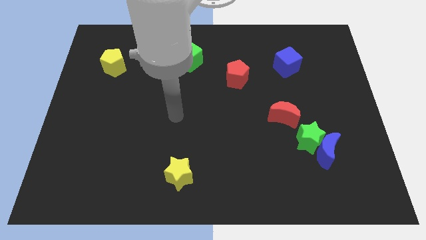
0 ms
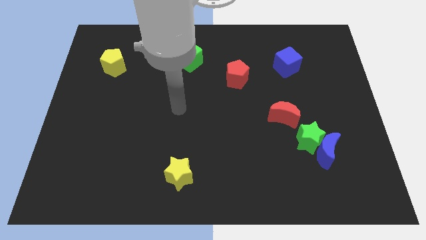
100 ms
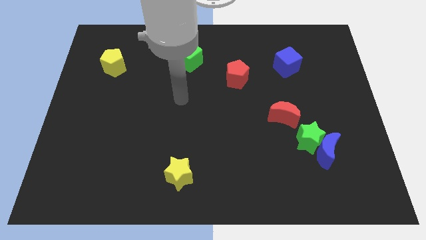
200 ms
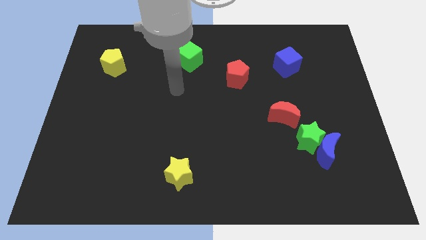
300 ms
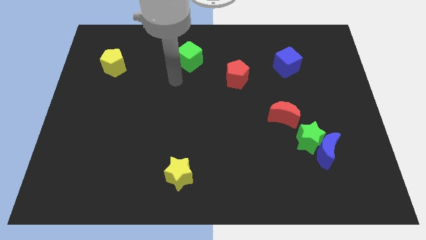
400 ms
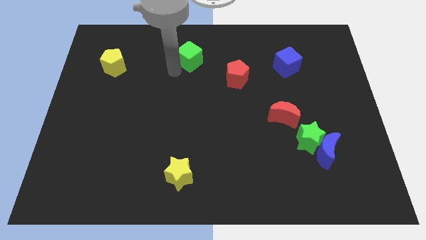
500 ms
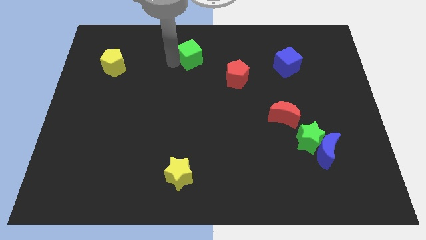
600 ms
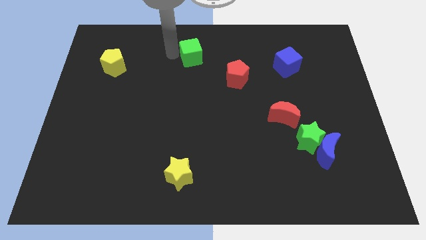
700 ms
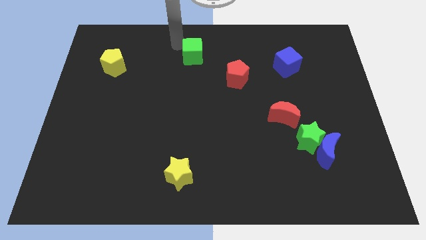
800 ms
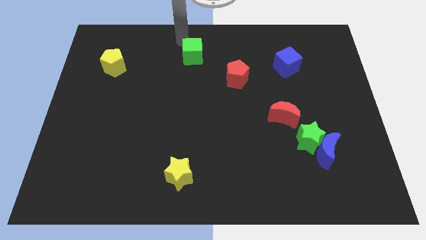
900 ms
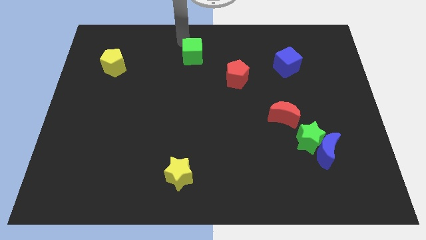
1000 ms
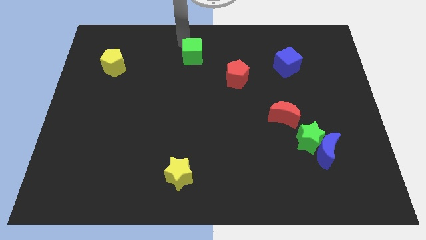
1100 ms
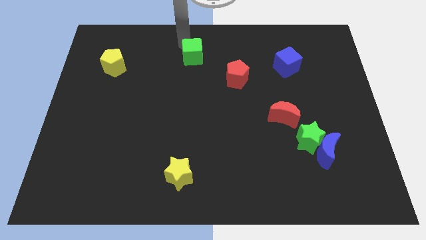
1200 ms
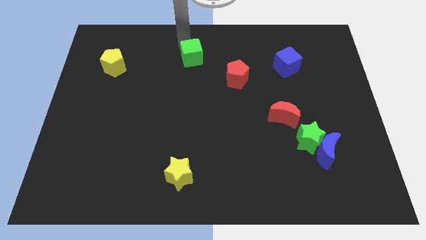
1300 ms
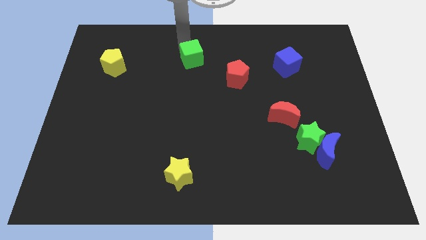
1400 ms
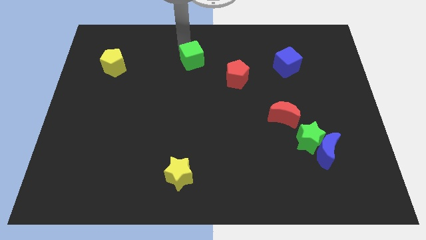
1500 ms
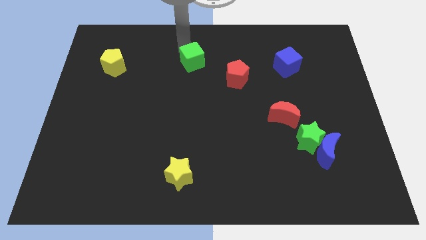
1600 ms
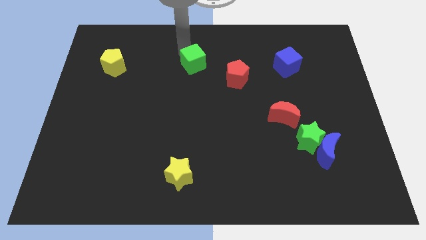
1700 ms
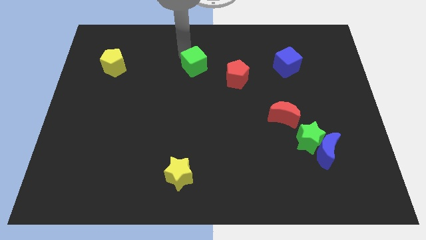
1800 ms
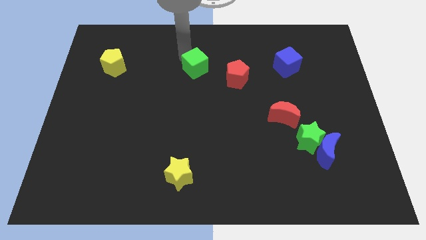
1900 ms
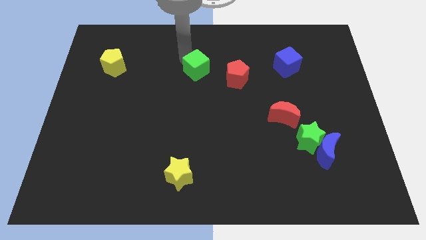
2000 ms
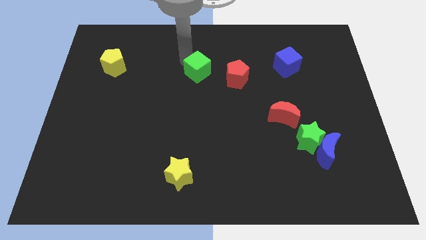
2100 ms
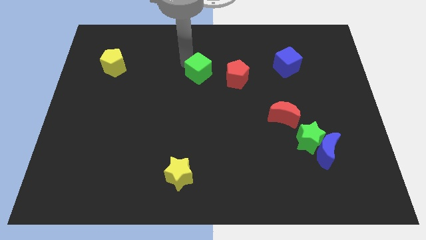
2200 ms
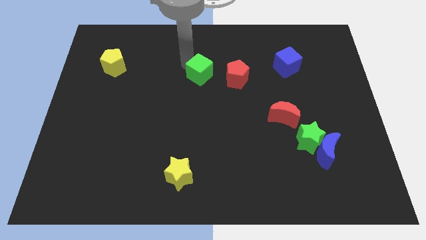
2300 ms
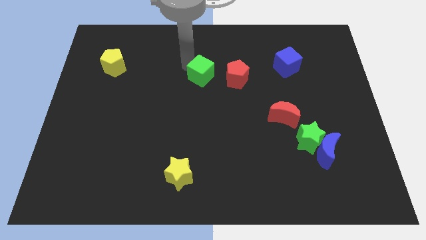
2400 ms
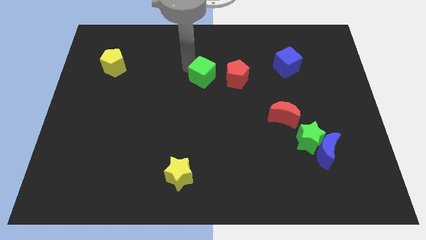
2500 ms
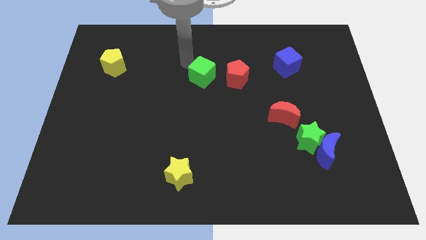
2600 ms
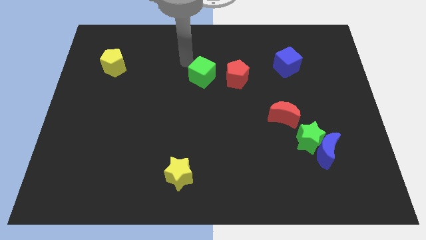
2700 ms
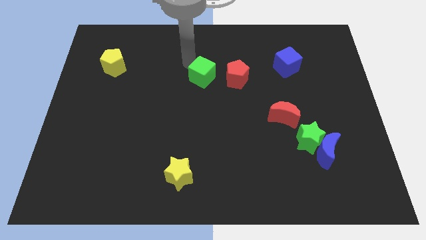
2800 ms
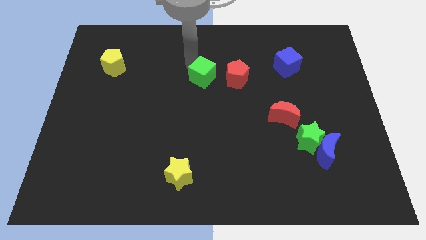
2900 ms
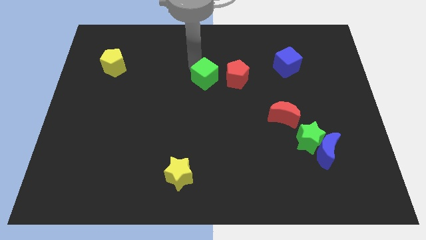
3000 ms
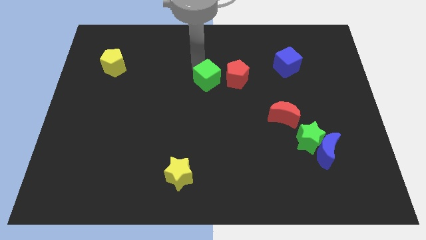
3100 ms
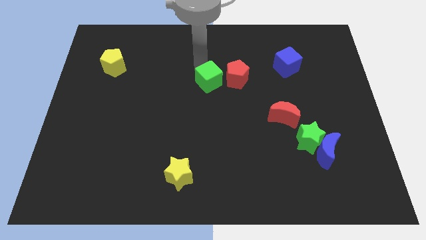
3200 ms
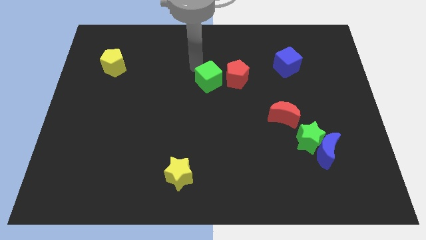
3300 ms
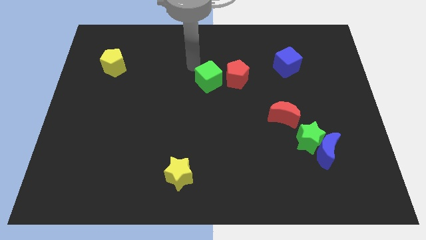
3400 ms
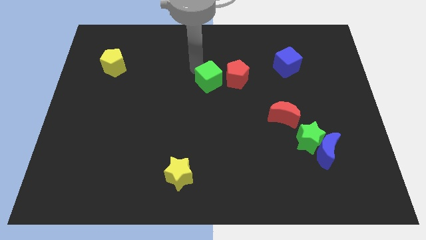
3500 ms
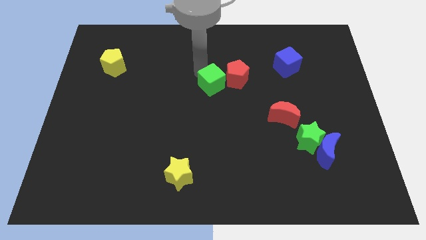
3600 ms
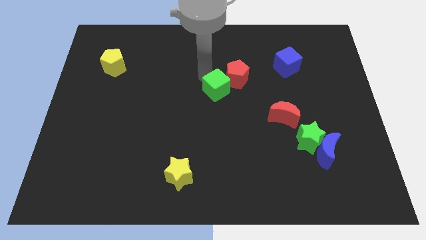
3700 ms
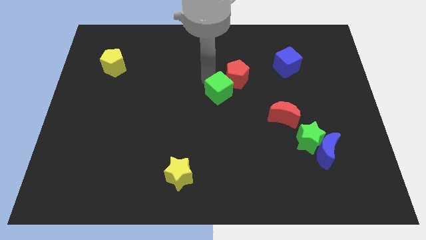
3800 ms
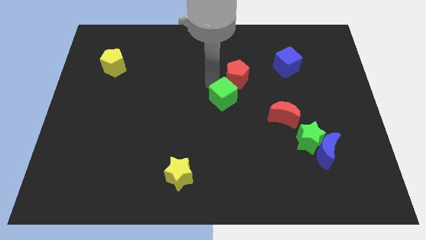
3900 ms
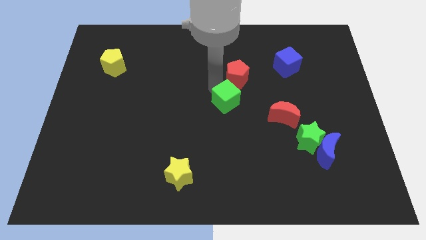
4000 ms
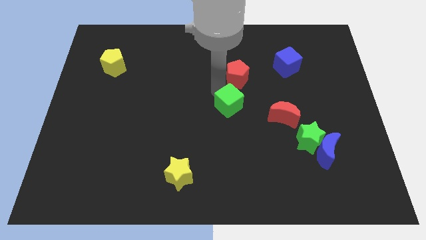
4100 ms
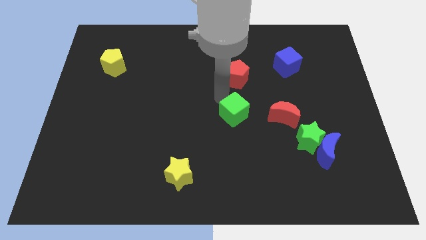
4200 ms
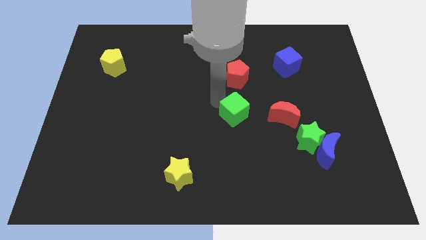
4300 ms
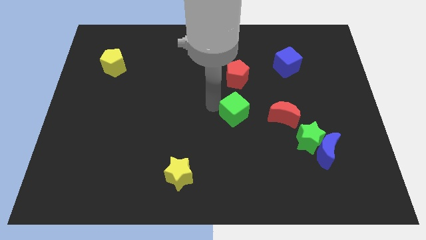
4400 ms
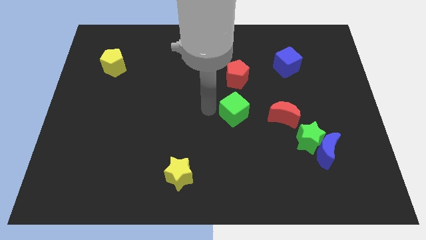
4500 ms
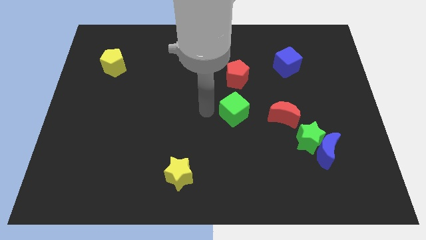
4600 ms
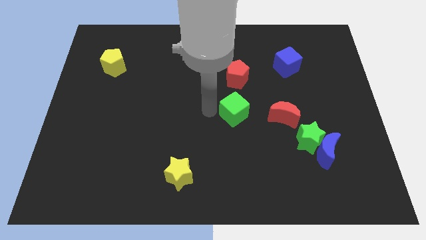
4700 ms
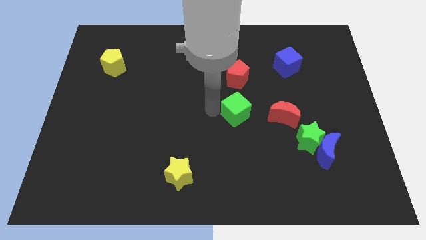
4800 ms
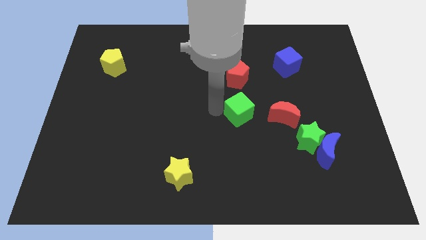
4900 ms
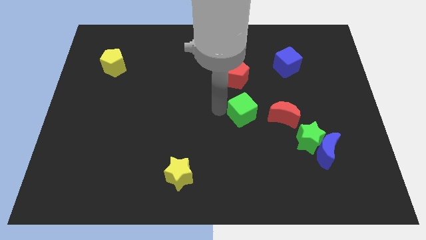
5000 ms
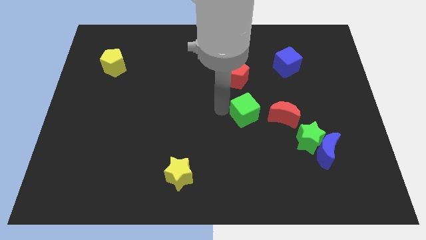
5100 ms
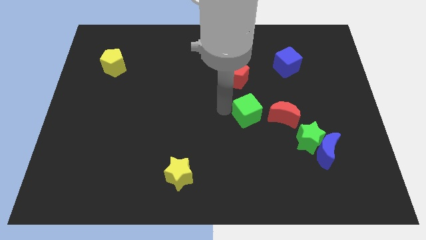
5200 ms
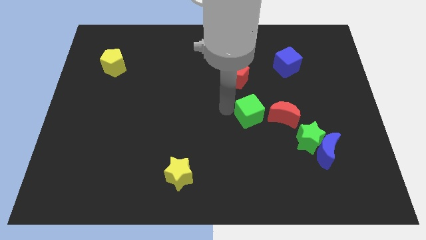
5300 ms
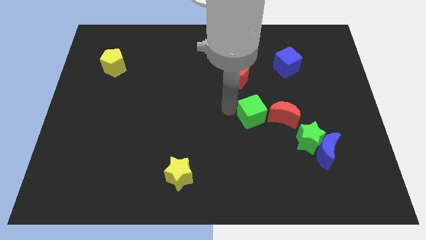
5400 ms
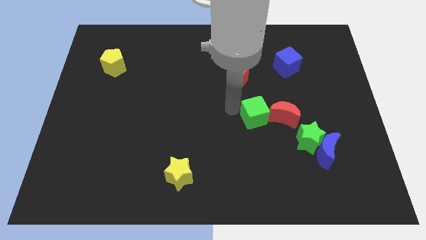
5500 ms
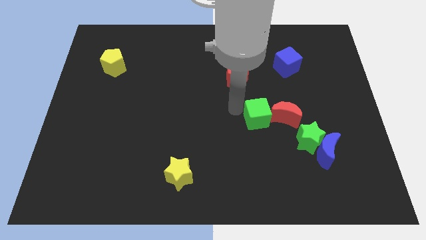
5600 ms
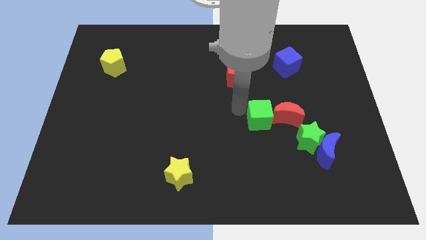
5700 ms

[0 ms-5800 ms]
push the green cube towards the red moon

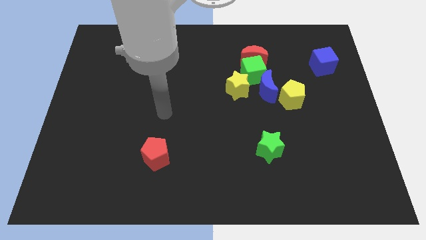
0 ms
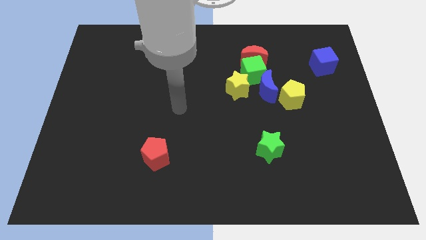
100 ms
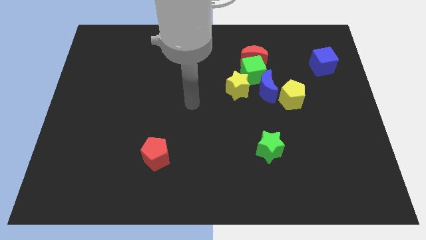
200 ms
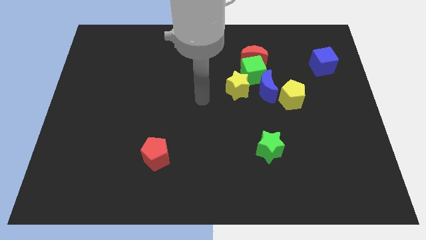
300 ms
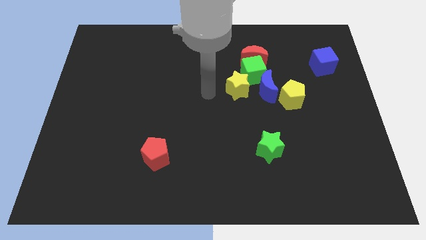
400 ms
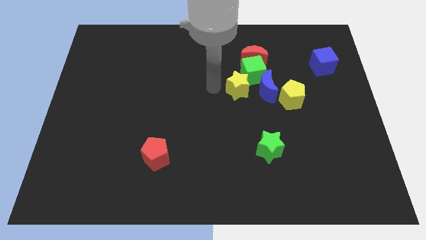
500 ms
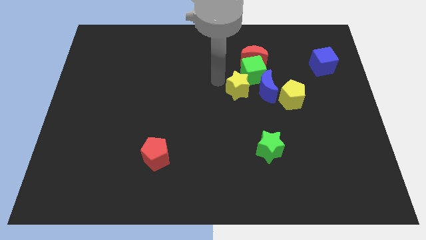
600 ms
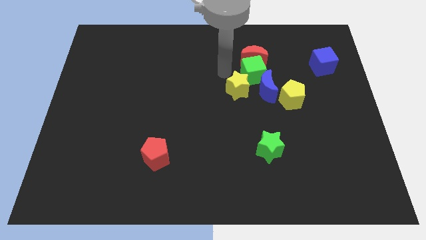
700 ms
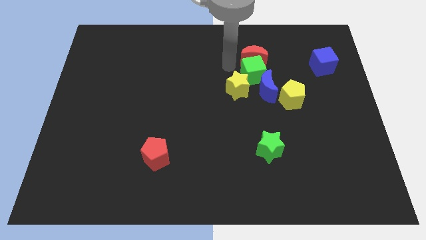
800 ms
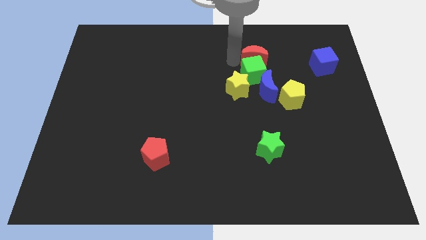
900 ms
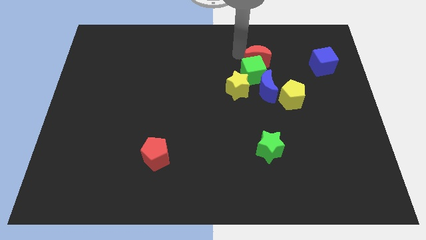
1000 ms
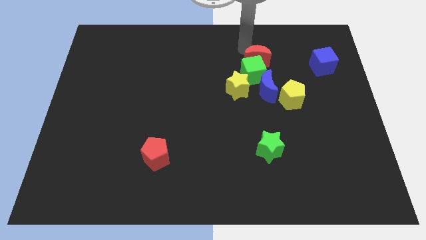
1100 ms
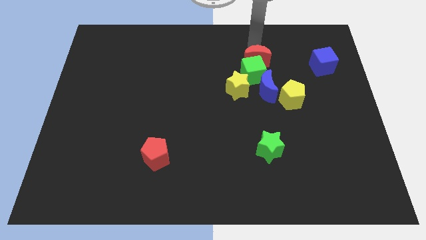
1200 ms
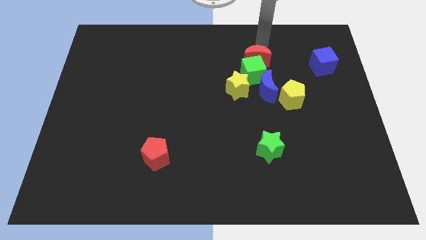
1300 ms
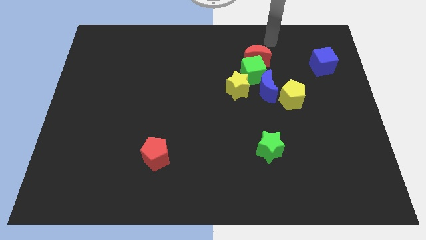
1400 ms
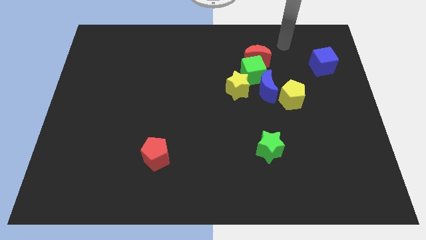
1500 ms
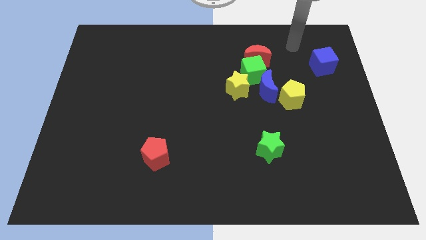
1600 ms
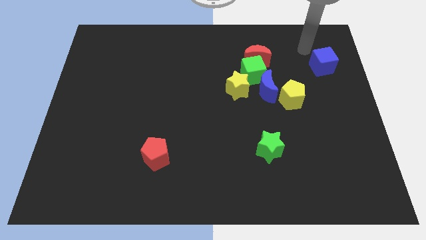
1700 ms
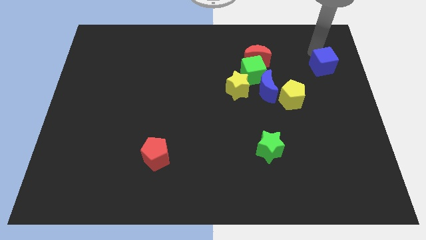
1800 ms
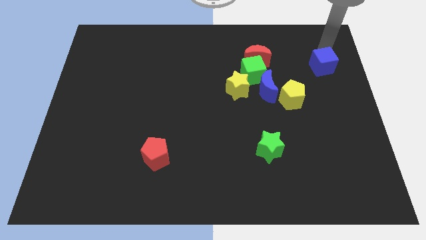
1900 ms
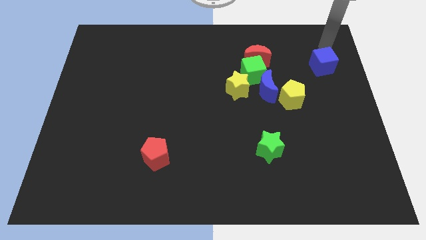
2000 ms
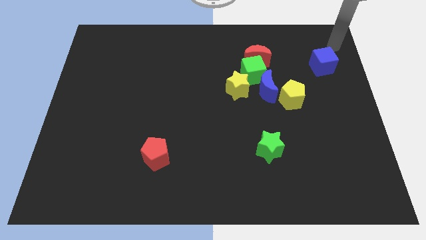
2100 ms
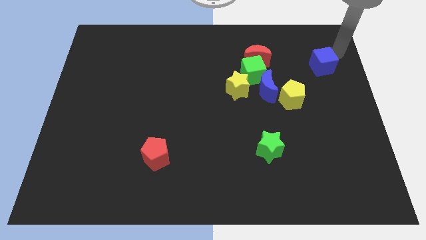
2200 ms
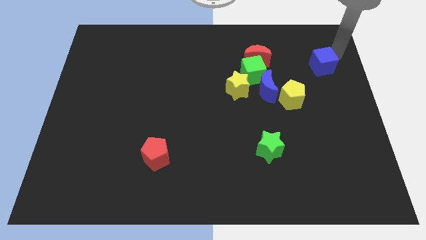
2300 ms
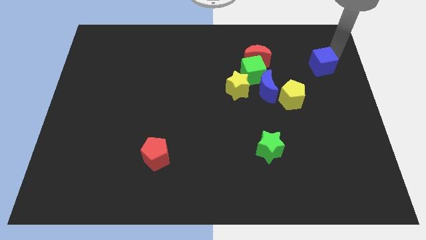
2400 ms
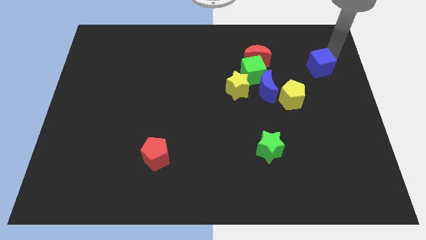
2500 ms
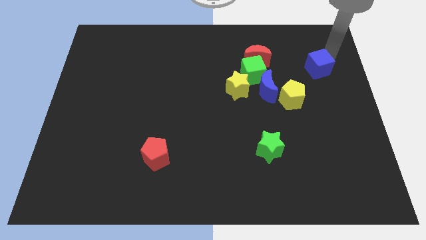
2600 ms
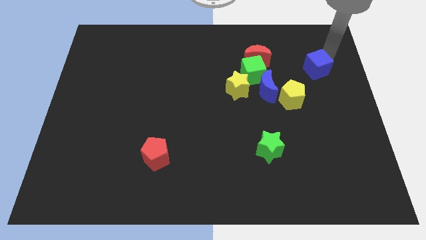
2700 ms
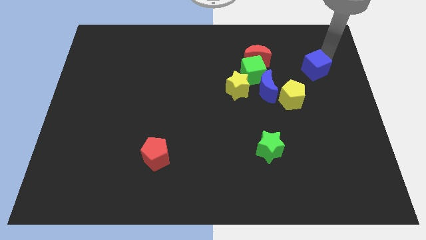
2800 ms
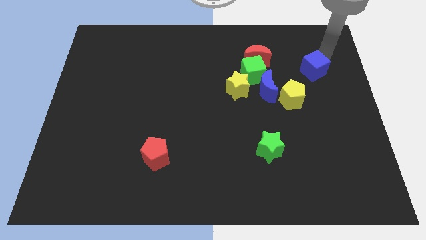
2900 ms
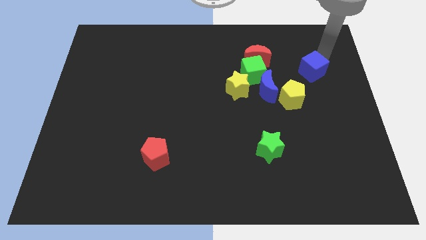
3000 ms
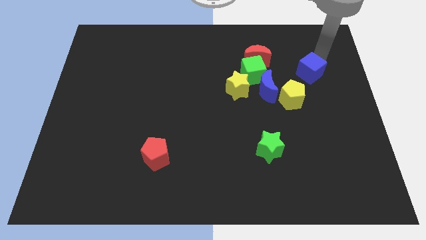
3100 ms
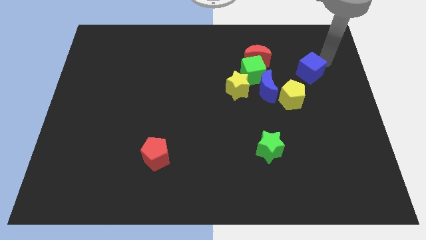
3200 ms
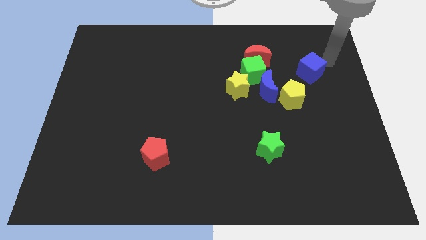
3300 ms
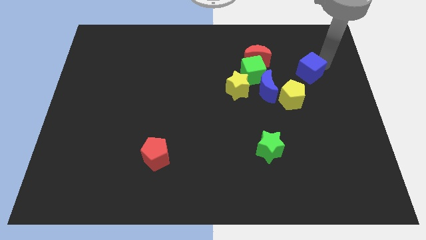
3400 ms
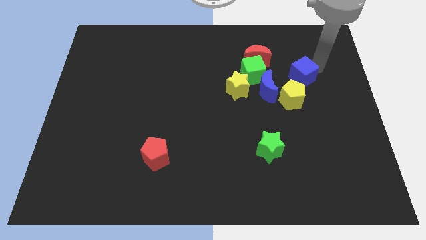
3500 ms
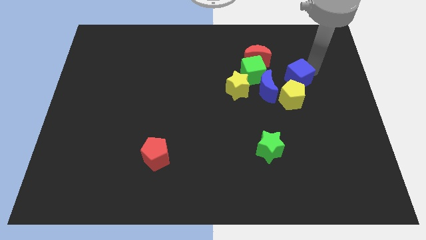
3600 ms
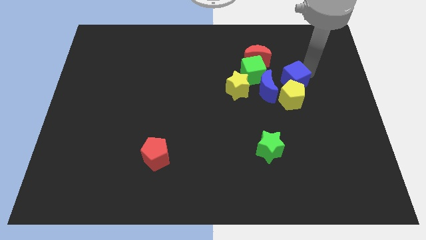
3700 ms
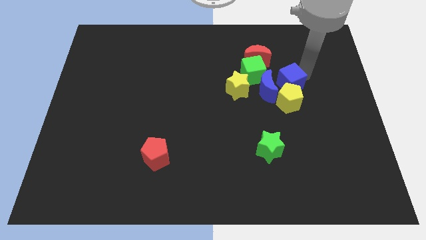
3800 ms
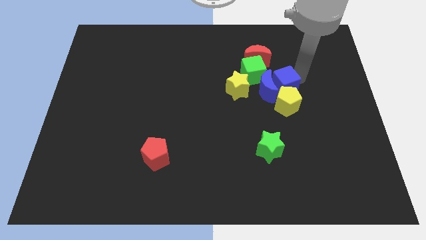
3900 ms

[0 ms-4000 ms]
move the blue cube close to the blue moon
